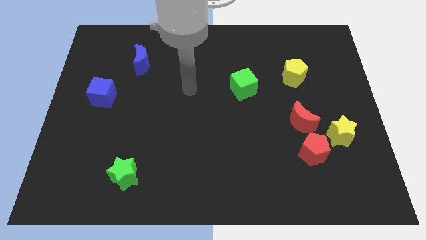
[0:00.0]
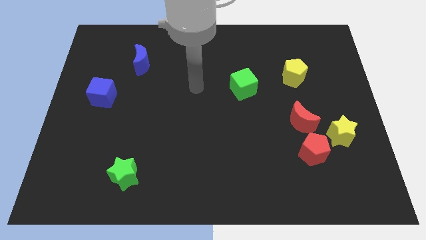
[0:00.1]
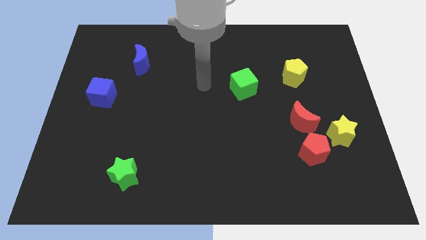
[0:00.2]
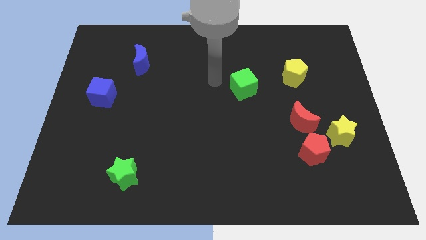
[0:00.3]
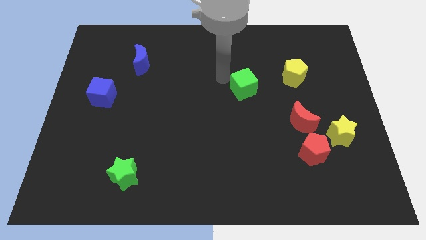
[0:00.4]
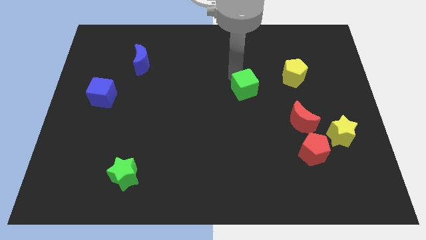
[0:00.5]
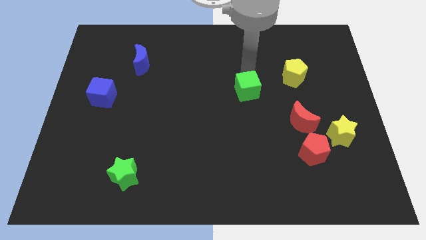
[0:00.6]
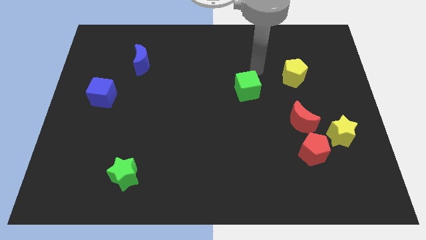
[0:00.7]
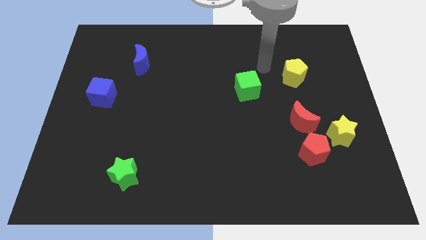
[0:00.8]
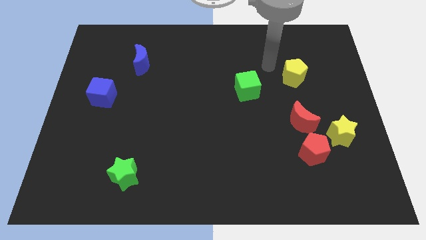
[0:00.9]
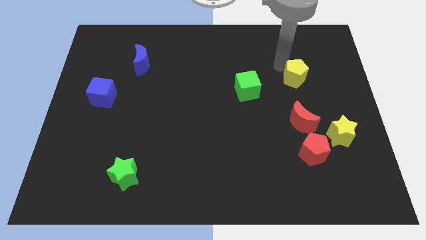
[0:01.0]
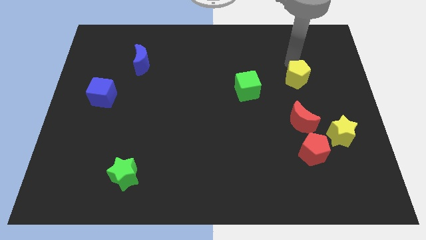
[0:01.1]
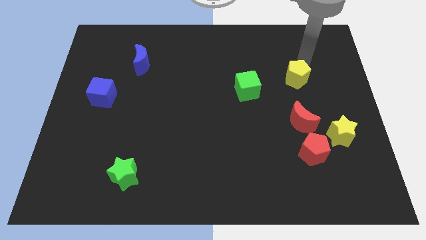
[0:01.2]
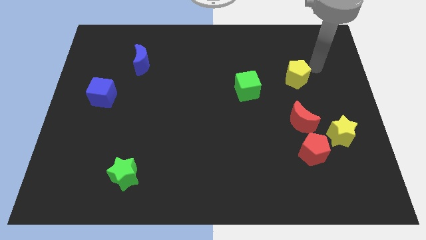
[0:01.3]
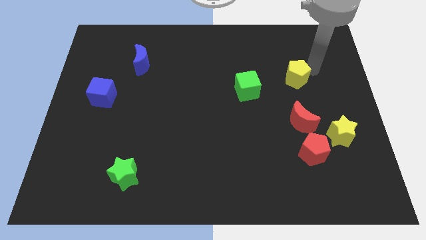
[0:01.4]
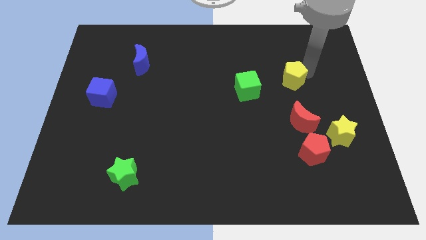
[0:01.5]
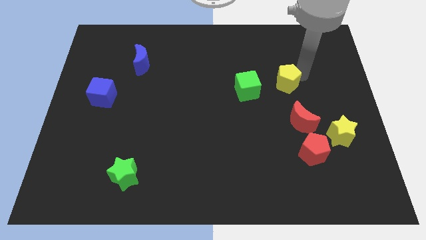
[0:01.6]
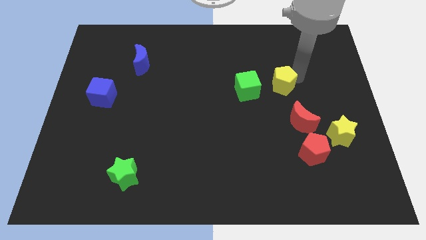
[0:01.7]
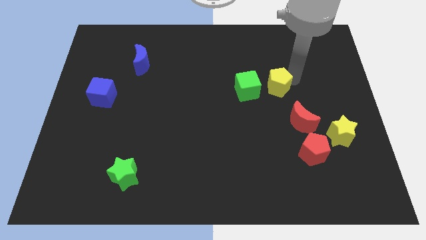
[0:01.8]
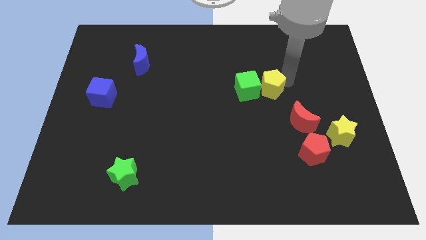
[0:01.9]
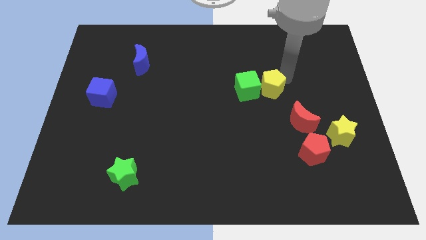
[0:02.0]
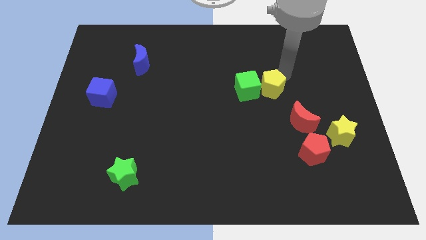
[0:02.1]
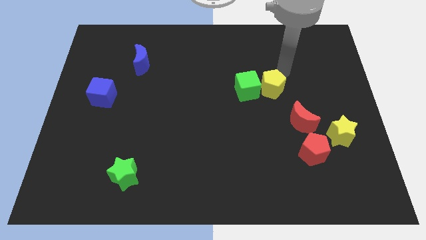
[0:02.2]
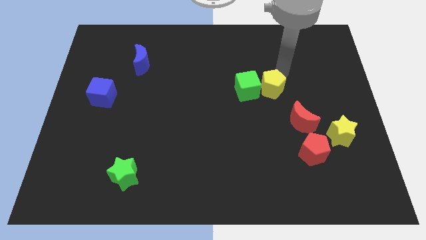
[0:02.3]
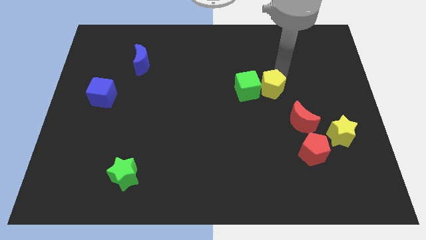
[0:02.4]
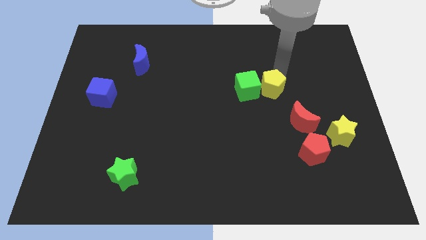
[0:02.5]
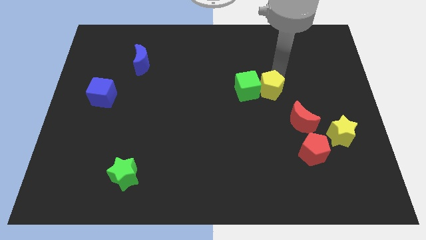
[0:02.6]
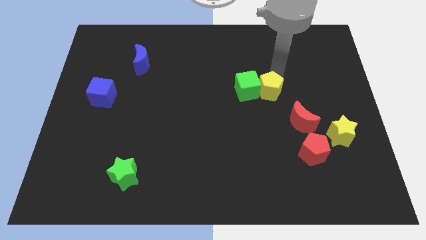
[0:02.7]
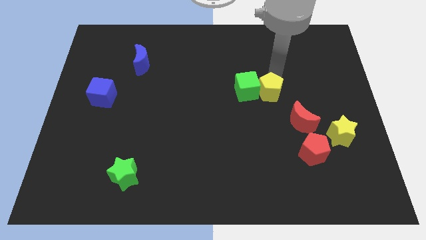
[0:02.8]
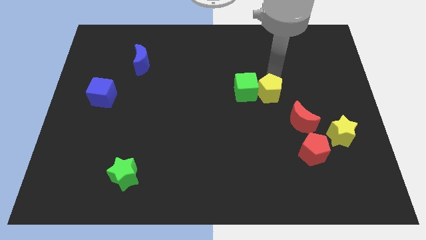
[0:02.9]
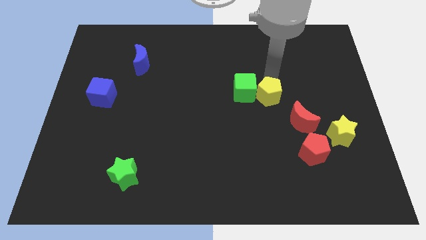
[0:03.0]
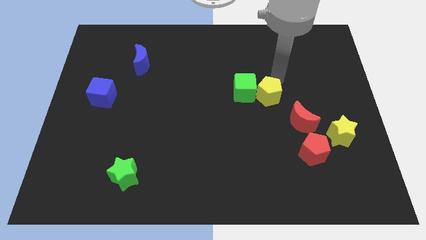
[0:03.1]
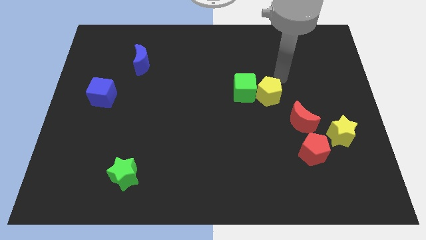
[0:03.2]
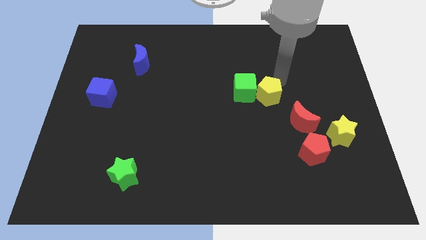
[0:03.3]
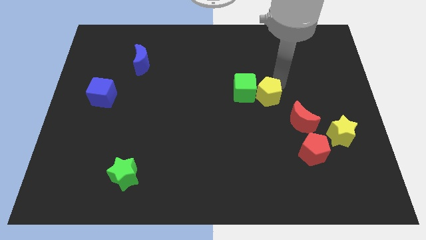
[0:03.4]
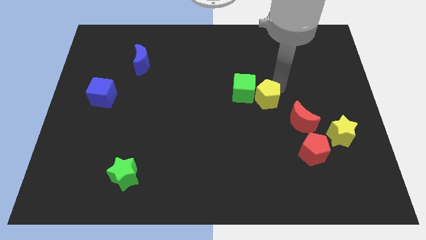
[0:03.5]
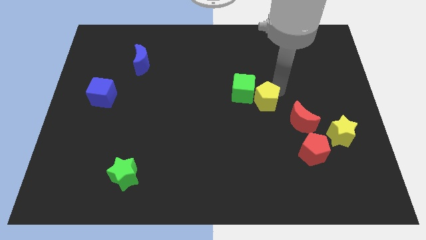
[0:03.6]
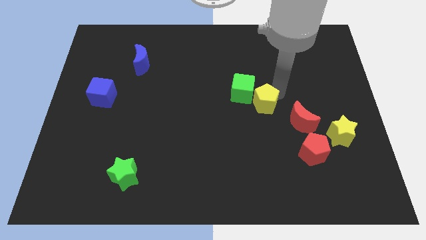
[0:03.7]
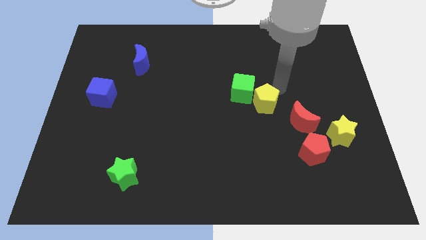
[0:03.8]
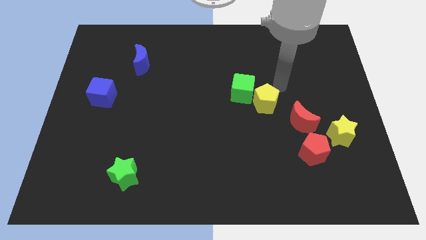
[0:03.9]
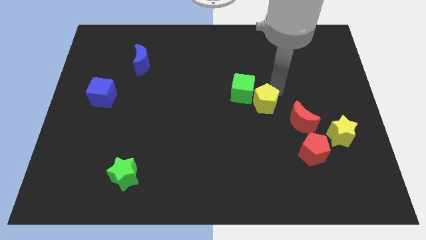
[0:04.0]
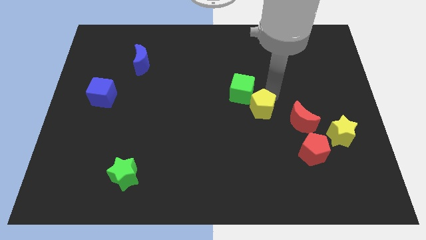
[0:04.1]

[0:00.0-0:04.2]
put the yellow pentagon to the bottom of the green cube

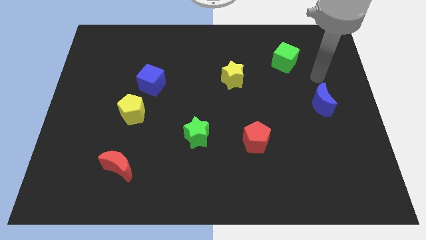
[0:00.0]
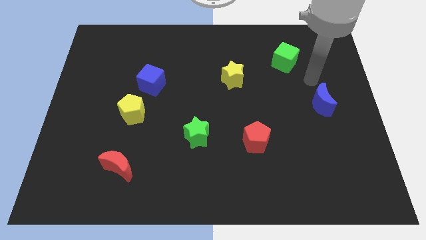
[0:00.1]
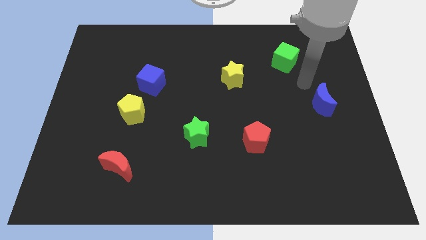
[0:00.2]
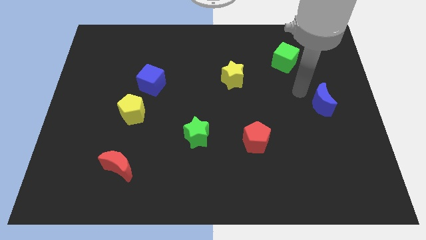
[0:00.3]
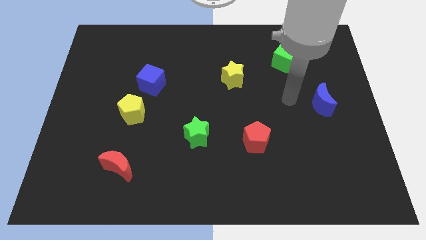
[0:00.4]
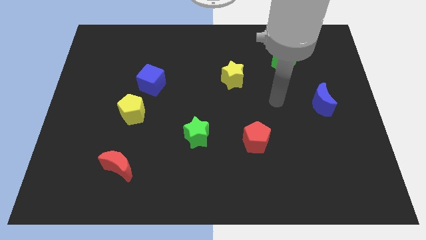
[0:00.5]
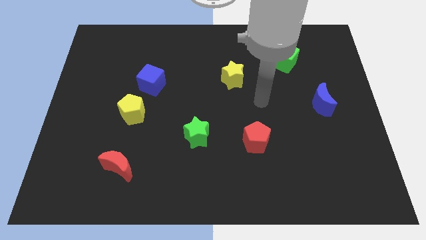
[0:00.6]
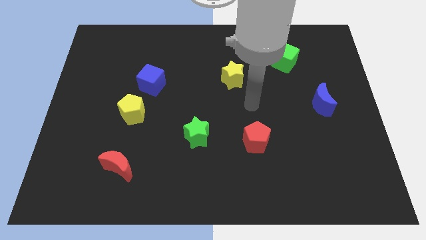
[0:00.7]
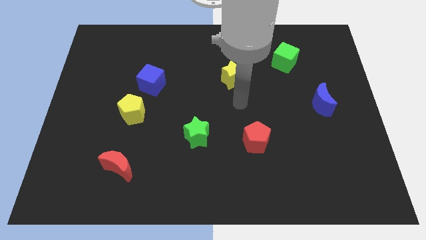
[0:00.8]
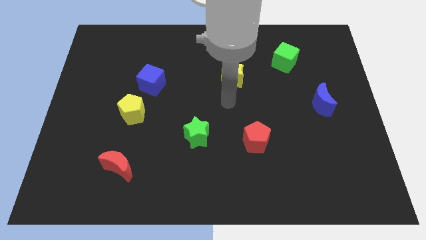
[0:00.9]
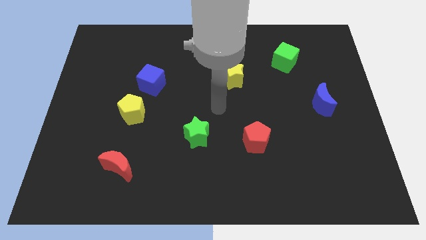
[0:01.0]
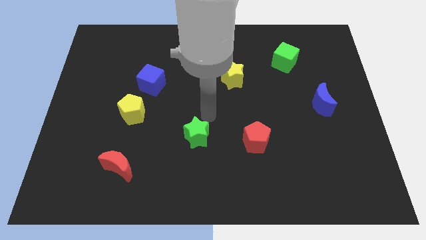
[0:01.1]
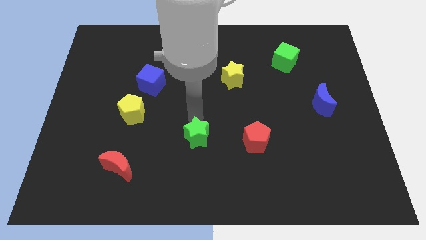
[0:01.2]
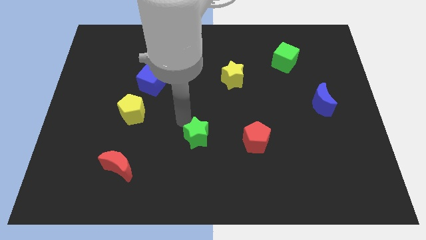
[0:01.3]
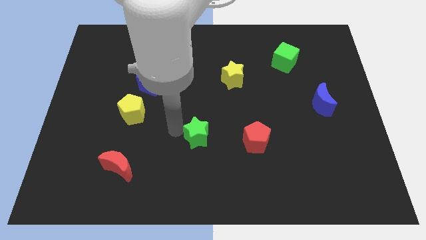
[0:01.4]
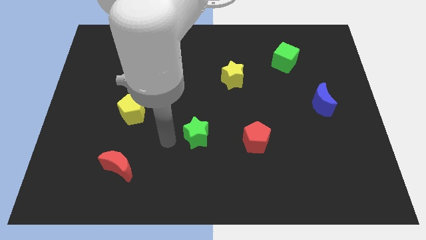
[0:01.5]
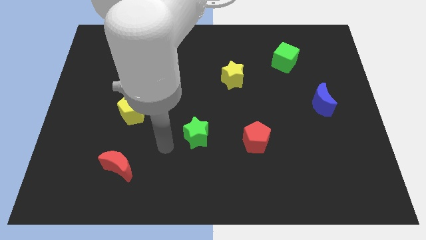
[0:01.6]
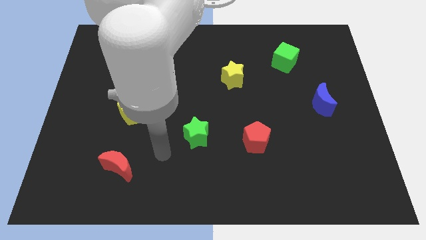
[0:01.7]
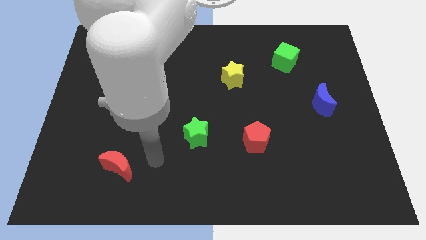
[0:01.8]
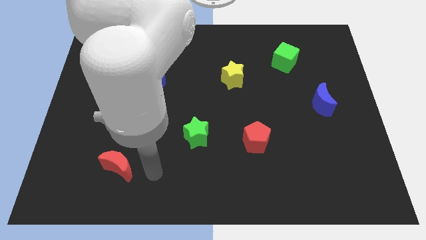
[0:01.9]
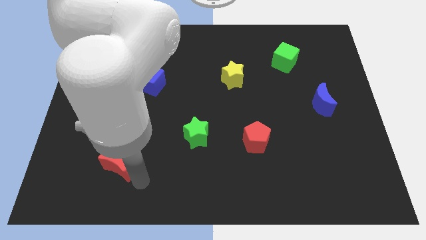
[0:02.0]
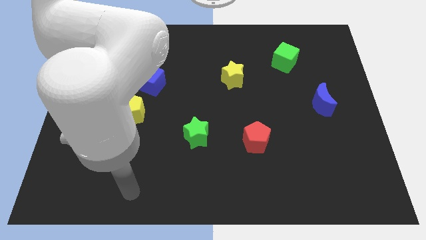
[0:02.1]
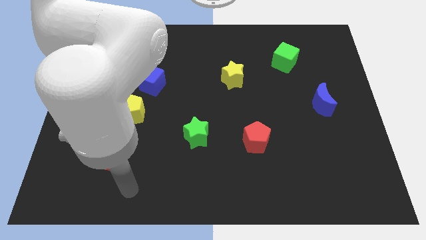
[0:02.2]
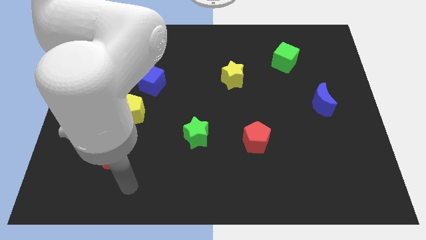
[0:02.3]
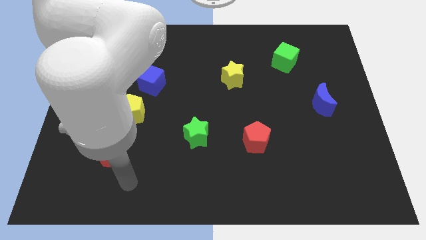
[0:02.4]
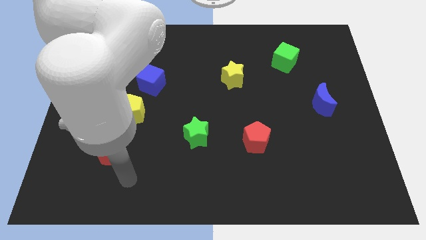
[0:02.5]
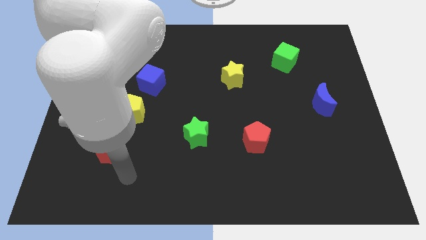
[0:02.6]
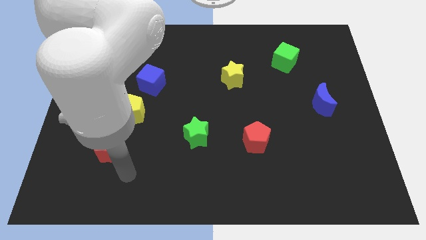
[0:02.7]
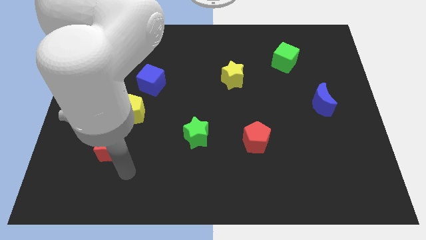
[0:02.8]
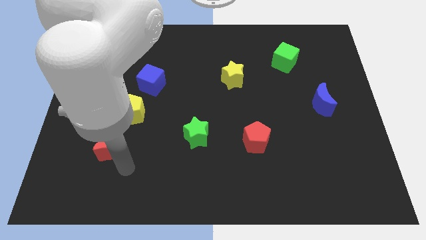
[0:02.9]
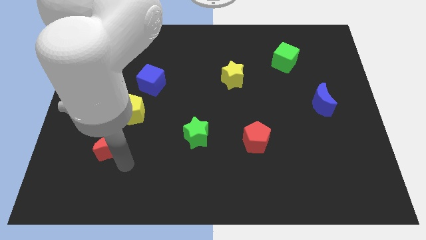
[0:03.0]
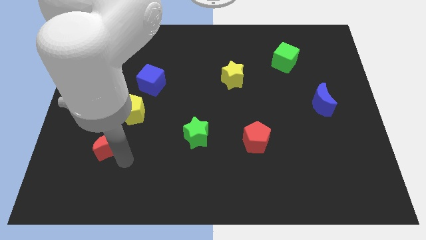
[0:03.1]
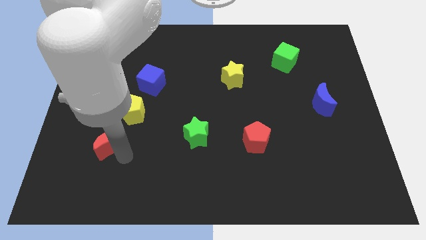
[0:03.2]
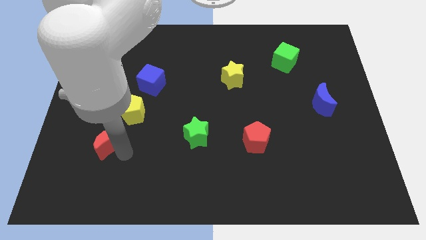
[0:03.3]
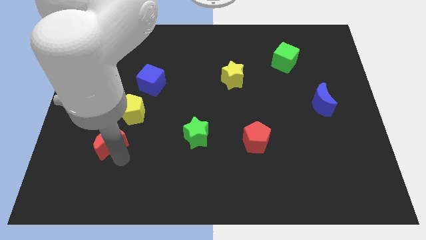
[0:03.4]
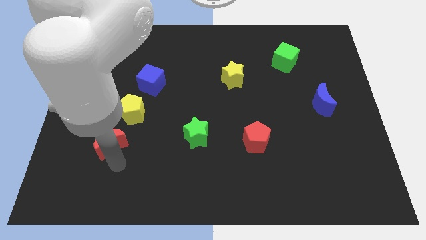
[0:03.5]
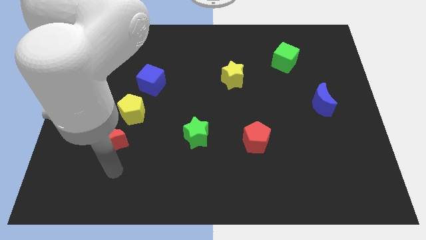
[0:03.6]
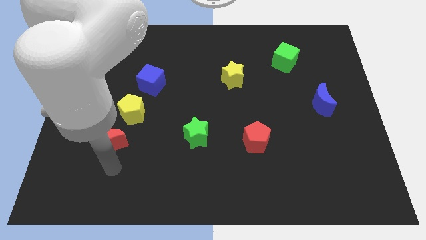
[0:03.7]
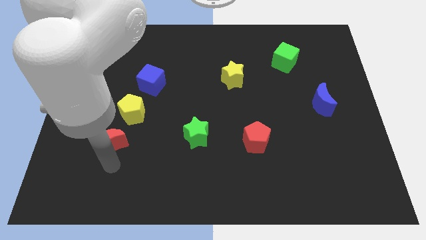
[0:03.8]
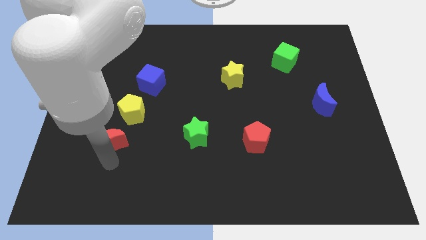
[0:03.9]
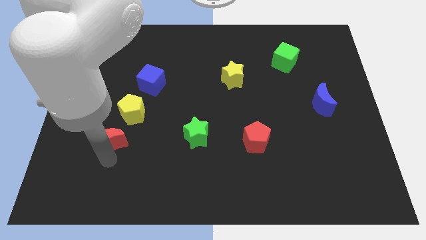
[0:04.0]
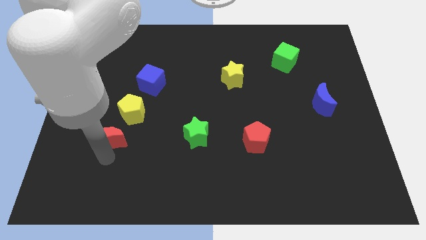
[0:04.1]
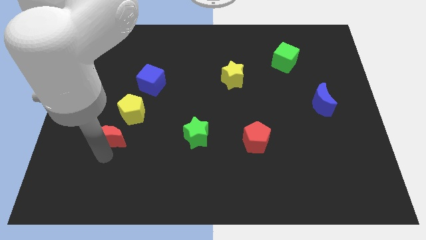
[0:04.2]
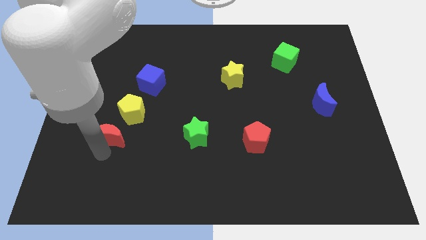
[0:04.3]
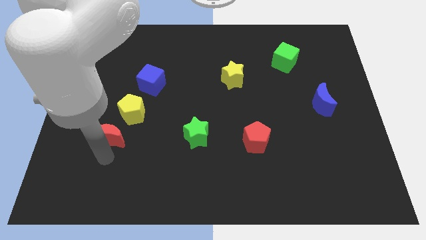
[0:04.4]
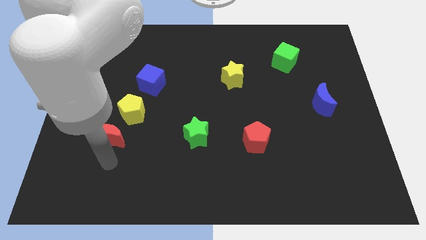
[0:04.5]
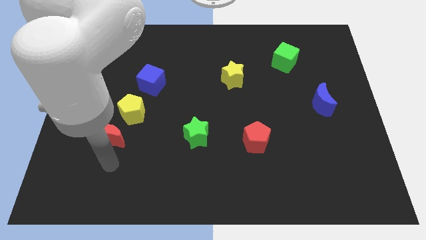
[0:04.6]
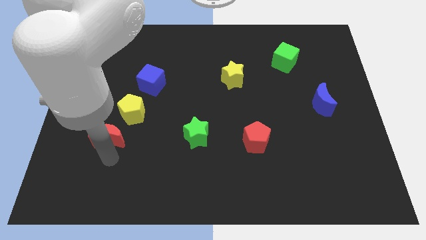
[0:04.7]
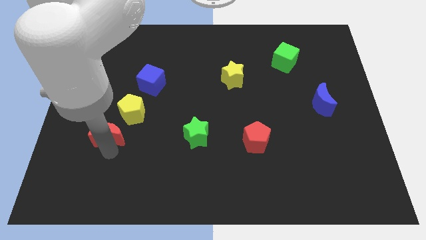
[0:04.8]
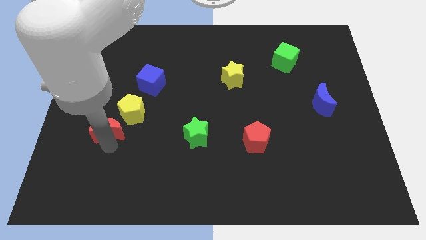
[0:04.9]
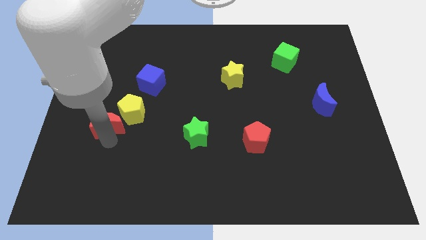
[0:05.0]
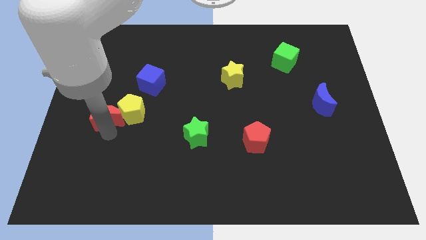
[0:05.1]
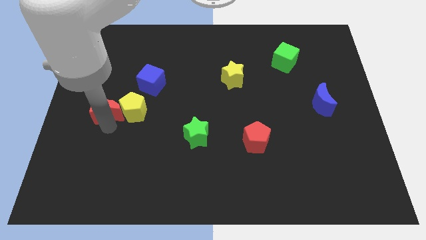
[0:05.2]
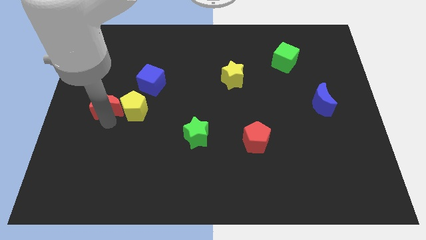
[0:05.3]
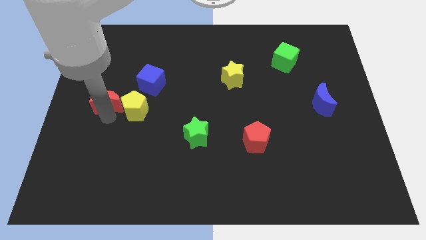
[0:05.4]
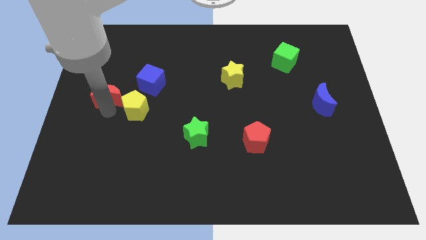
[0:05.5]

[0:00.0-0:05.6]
put the red moon just left of the blue cube
